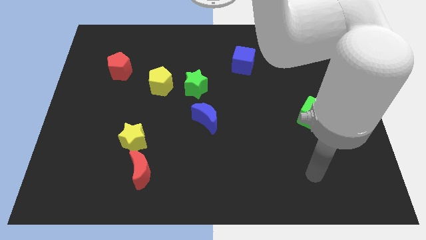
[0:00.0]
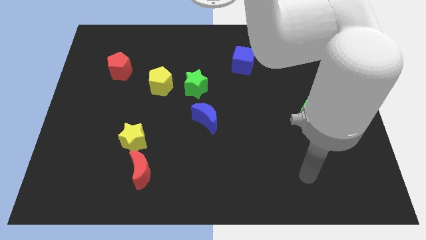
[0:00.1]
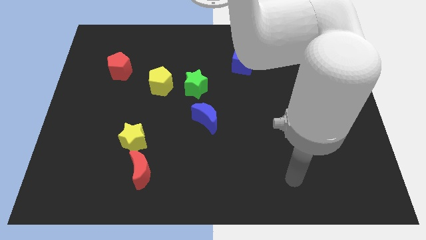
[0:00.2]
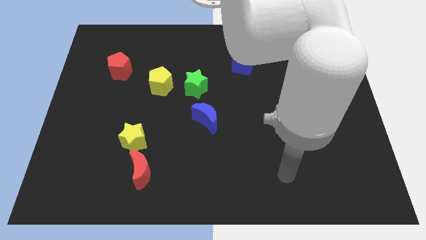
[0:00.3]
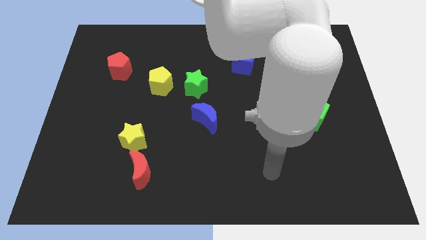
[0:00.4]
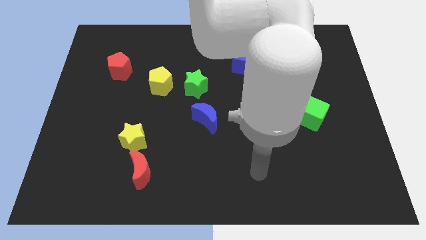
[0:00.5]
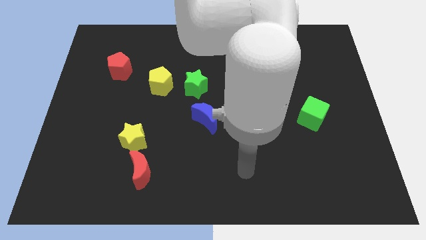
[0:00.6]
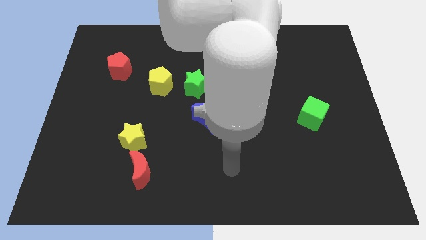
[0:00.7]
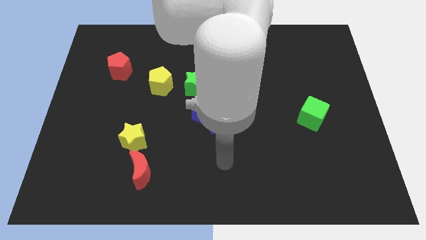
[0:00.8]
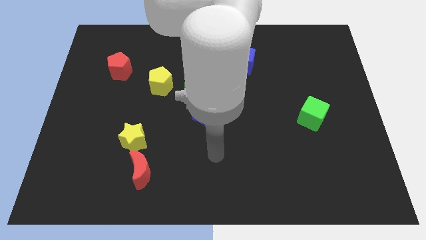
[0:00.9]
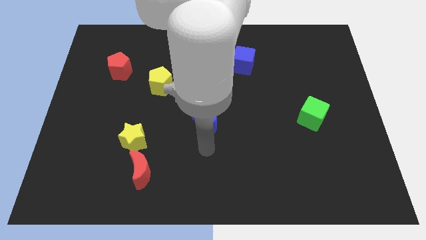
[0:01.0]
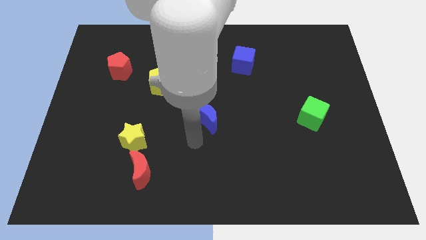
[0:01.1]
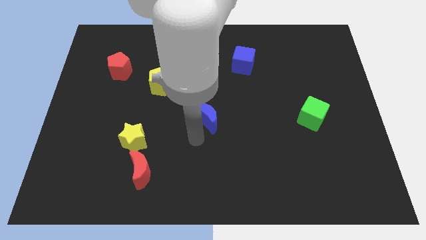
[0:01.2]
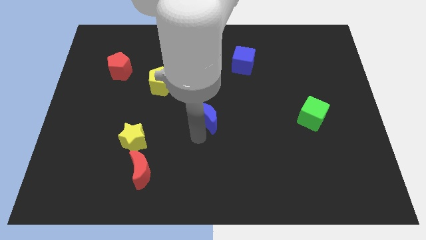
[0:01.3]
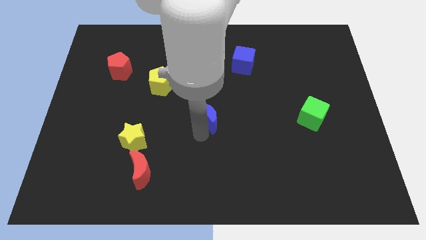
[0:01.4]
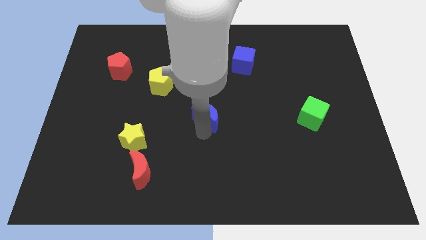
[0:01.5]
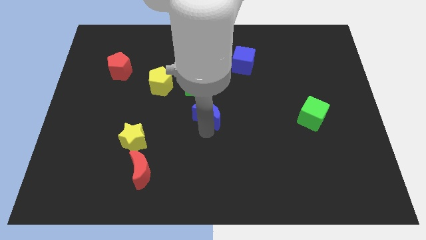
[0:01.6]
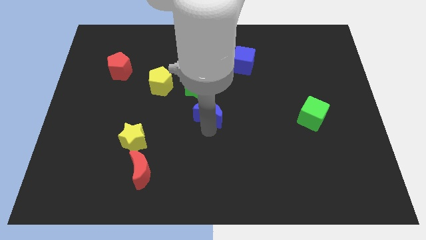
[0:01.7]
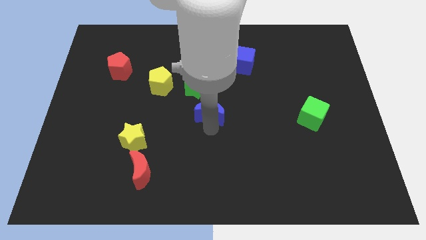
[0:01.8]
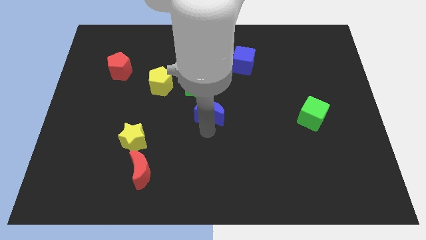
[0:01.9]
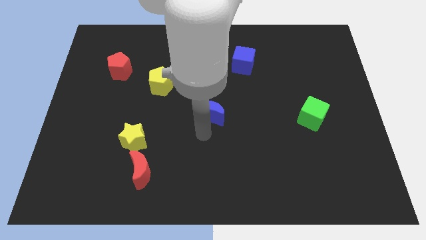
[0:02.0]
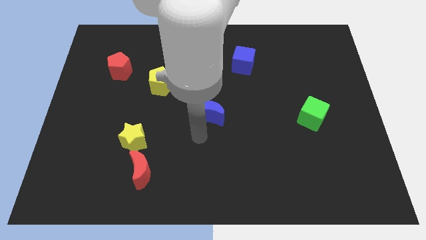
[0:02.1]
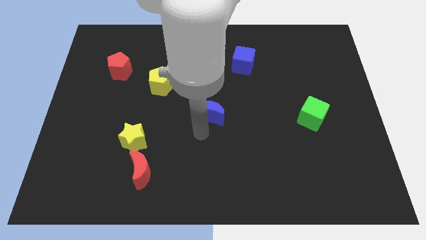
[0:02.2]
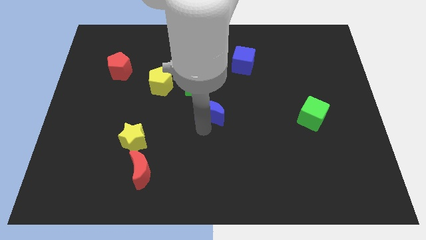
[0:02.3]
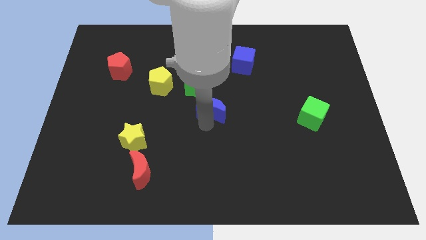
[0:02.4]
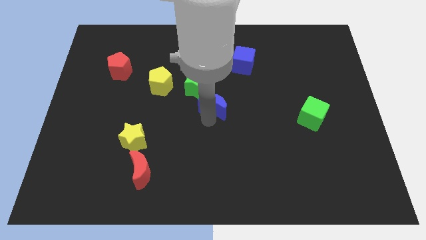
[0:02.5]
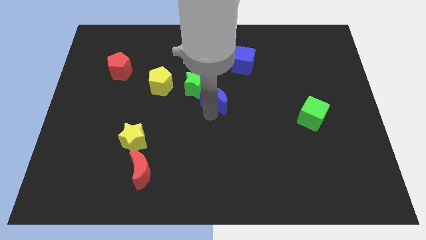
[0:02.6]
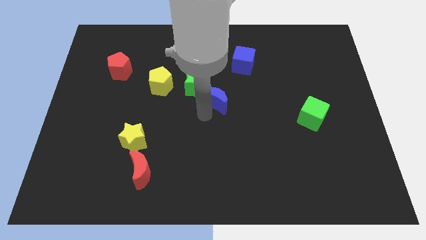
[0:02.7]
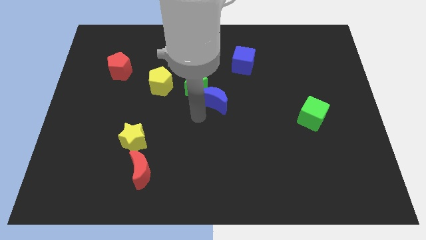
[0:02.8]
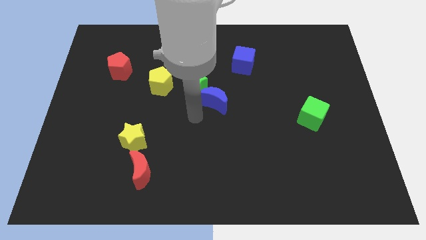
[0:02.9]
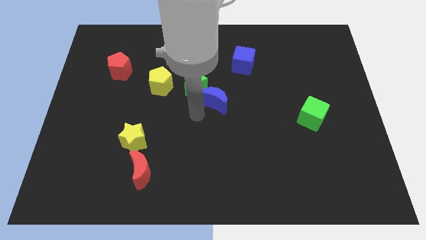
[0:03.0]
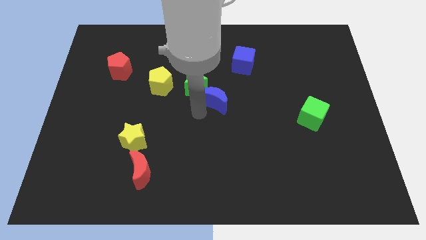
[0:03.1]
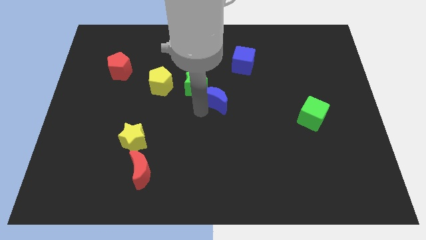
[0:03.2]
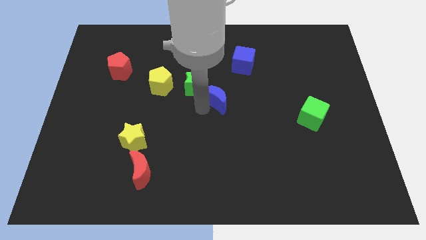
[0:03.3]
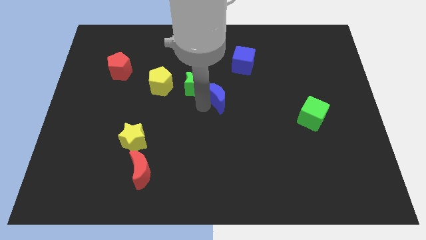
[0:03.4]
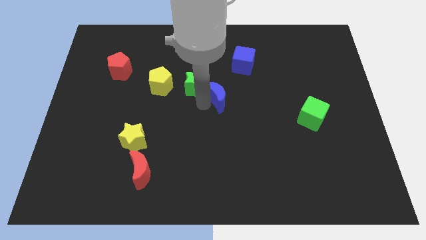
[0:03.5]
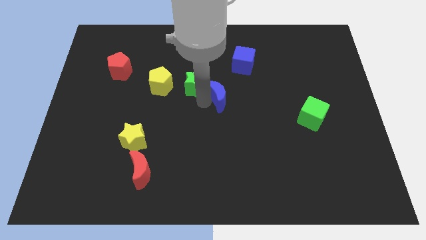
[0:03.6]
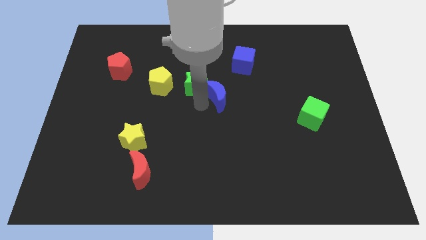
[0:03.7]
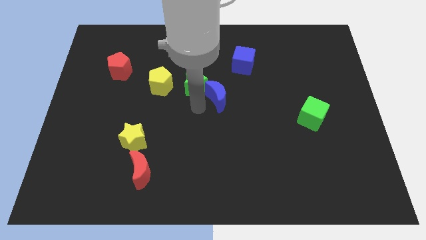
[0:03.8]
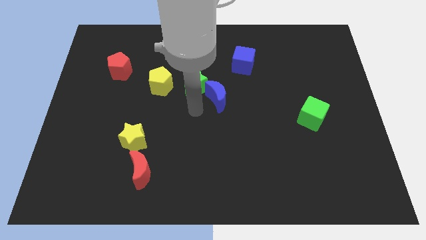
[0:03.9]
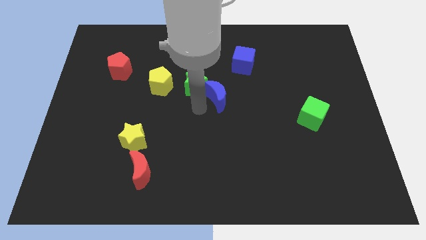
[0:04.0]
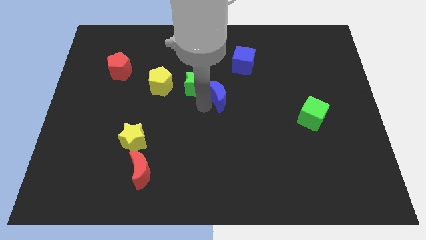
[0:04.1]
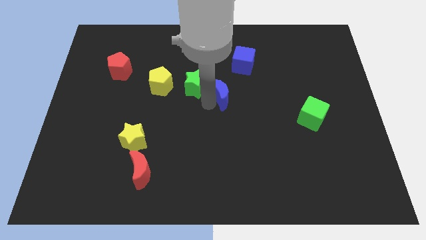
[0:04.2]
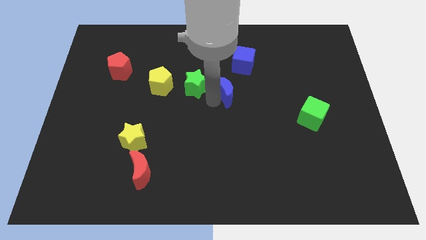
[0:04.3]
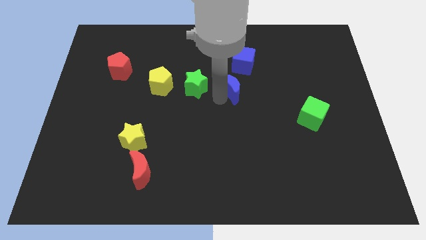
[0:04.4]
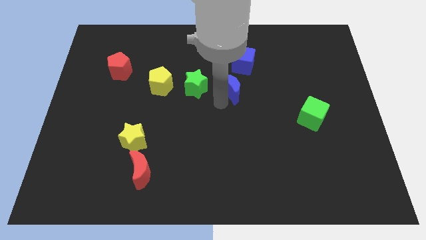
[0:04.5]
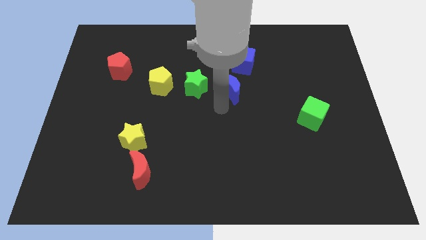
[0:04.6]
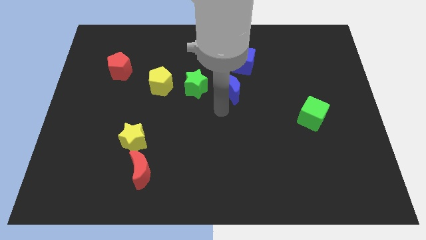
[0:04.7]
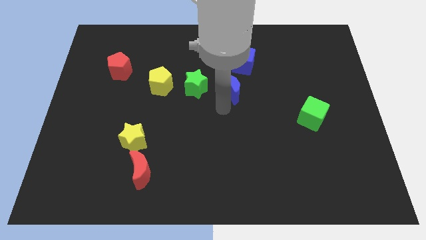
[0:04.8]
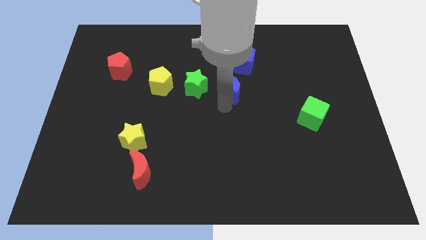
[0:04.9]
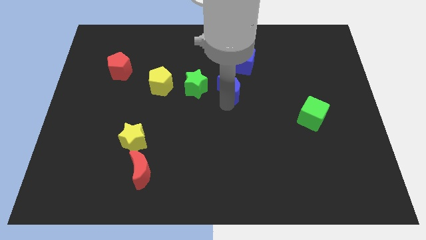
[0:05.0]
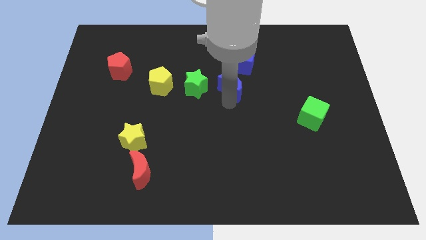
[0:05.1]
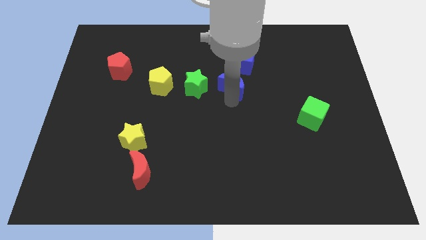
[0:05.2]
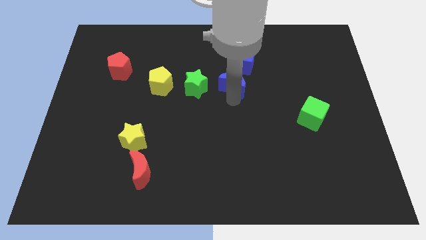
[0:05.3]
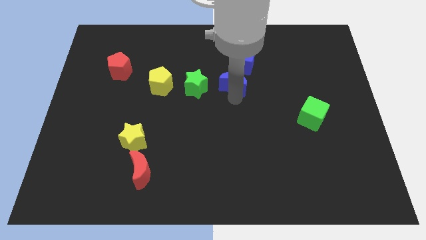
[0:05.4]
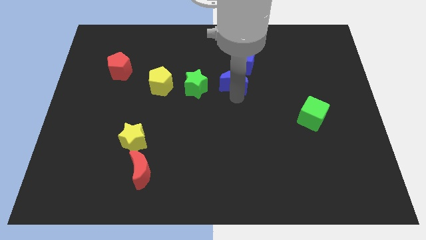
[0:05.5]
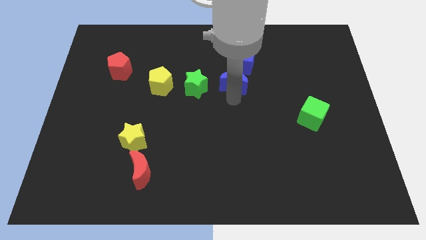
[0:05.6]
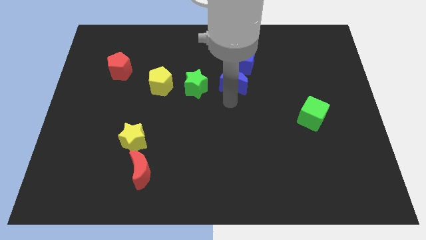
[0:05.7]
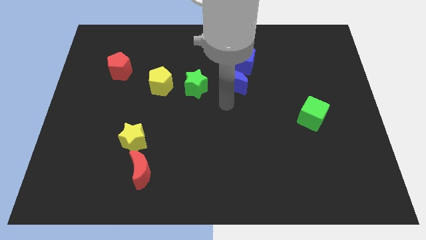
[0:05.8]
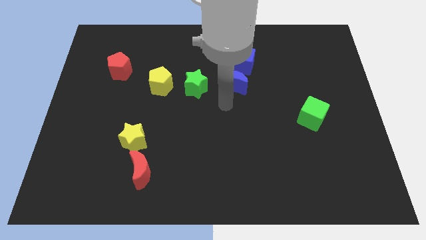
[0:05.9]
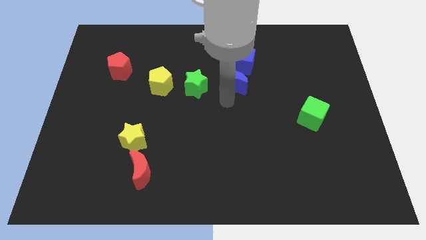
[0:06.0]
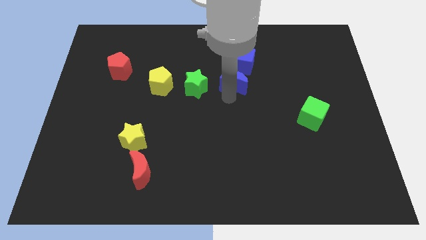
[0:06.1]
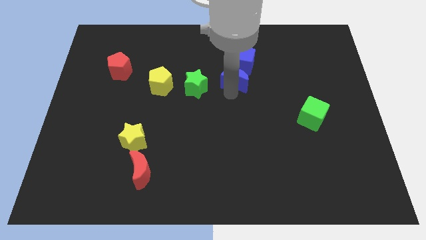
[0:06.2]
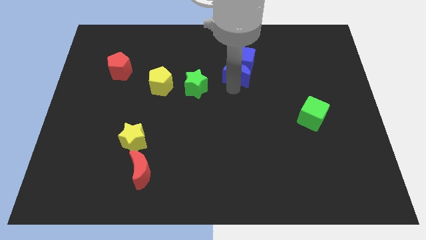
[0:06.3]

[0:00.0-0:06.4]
move the blue moon to the blue cube

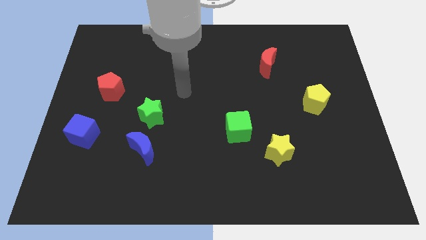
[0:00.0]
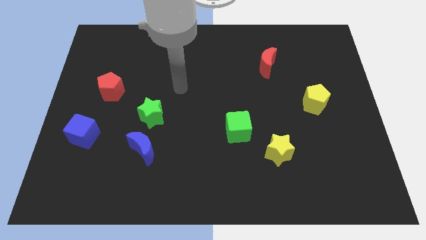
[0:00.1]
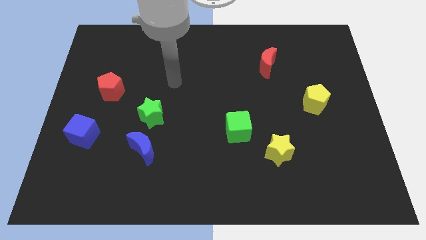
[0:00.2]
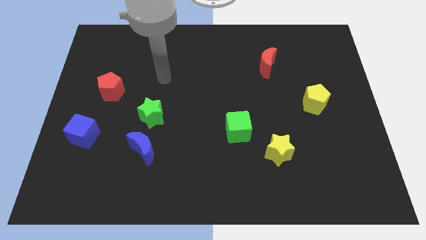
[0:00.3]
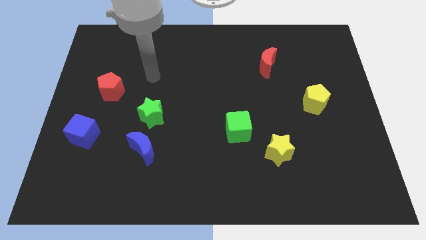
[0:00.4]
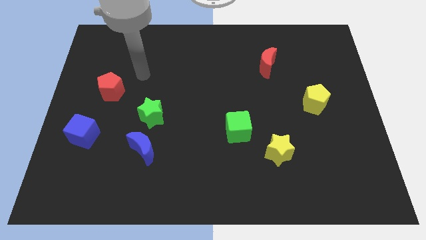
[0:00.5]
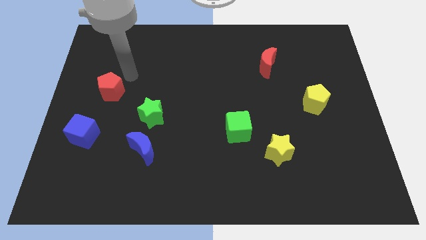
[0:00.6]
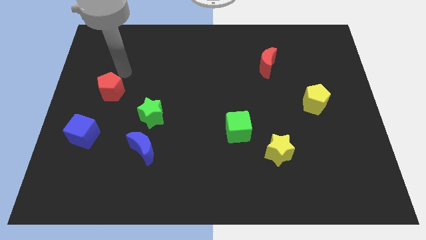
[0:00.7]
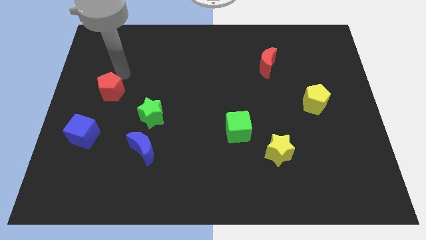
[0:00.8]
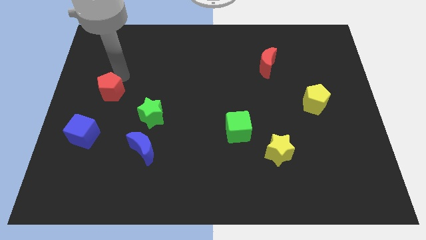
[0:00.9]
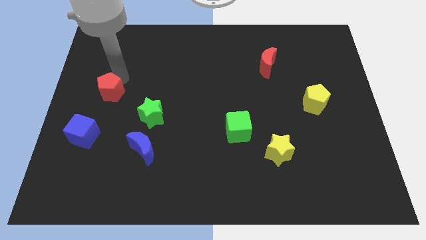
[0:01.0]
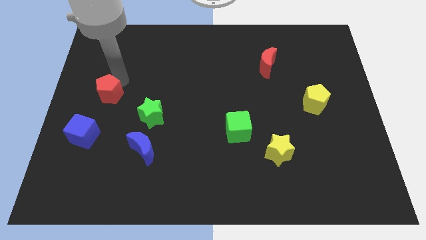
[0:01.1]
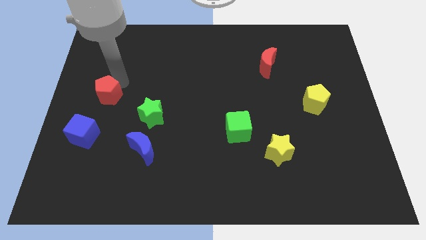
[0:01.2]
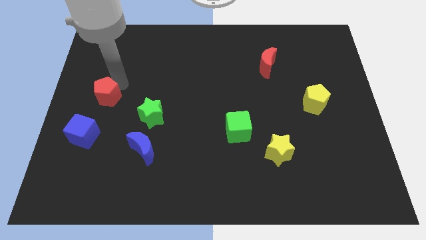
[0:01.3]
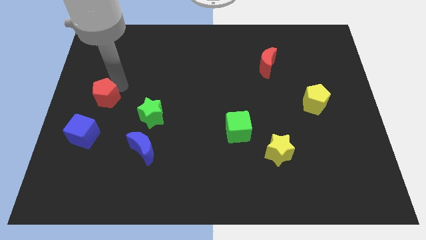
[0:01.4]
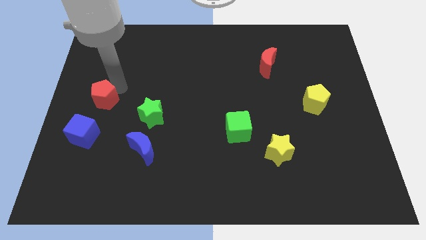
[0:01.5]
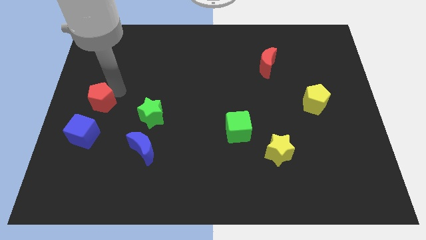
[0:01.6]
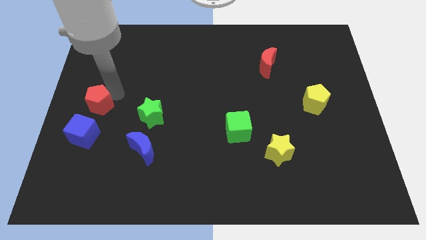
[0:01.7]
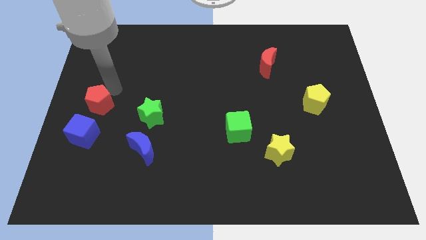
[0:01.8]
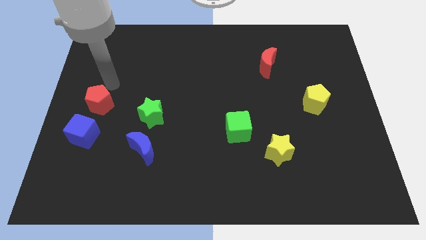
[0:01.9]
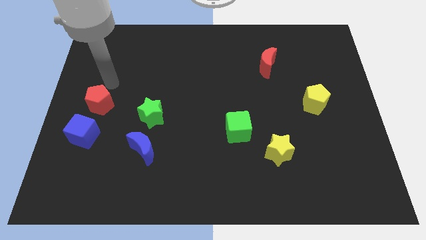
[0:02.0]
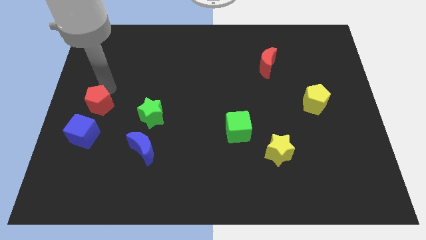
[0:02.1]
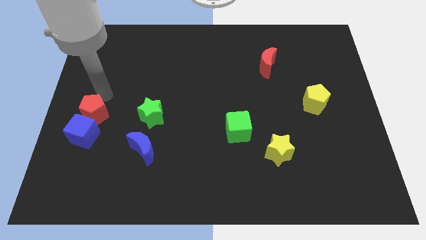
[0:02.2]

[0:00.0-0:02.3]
move the red pentagon towards the blue cube
